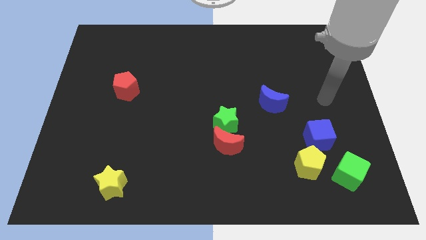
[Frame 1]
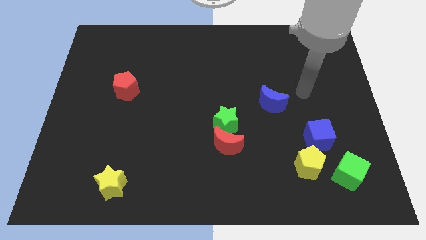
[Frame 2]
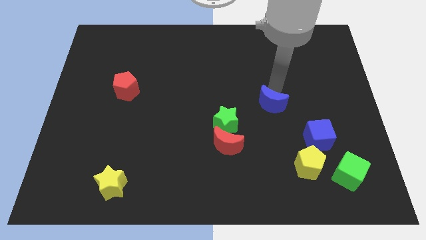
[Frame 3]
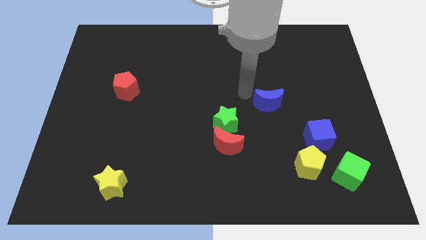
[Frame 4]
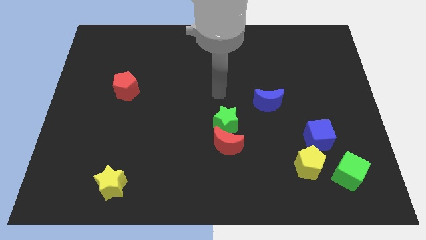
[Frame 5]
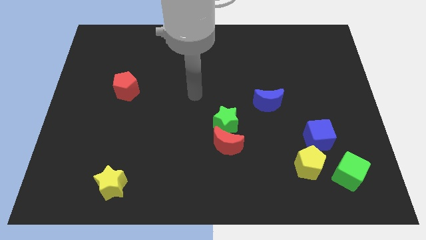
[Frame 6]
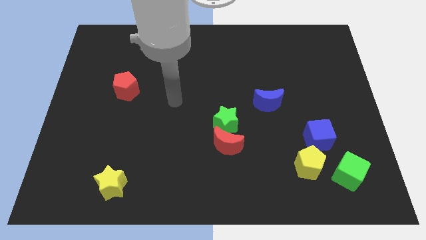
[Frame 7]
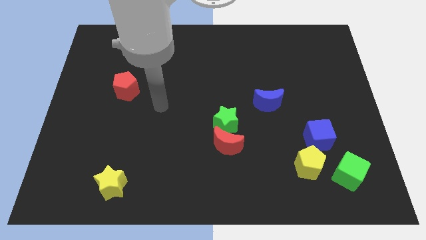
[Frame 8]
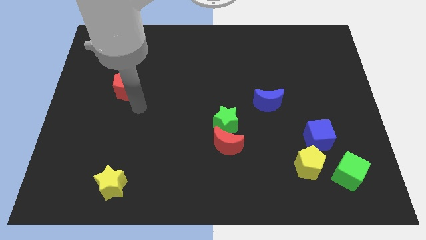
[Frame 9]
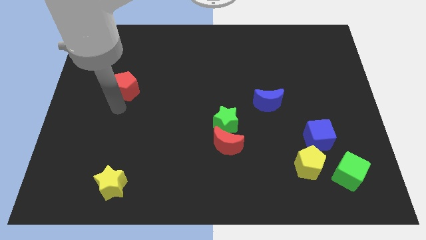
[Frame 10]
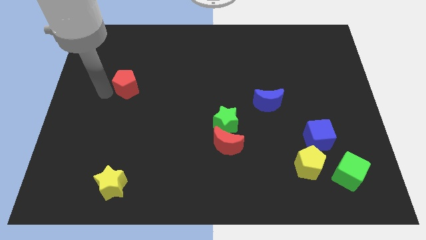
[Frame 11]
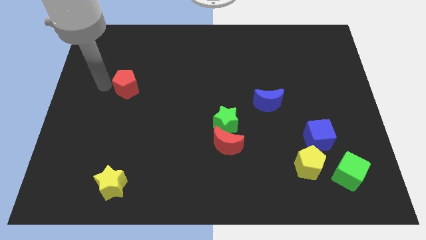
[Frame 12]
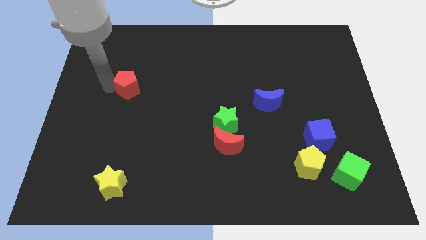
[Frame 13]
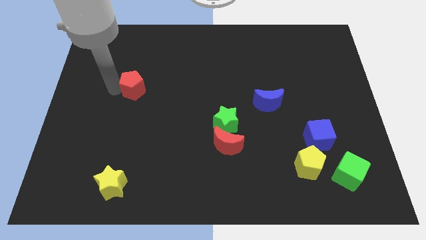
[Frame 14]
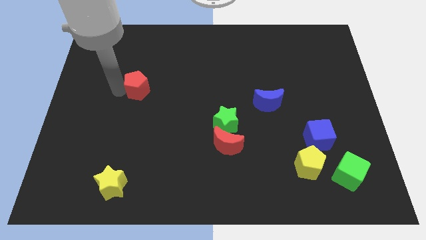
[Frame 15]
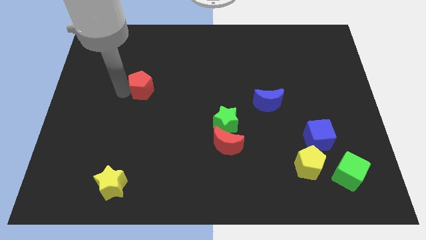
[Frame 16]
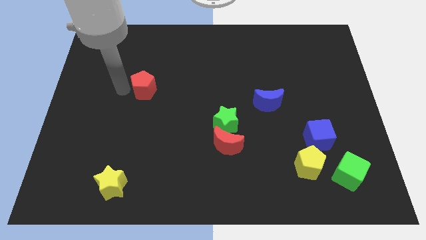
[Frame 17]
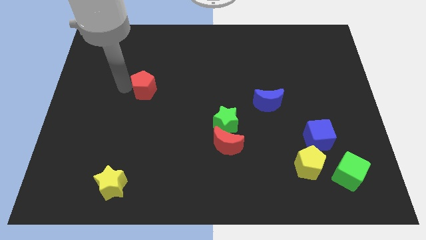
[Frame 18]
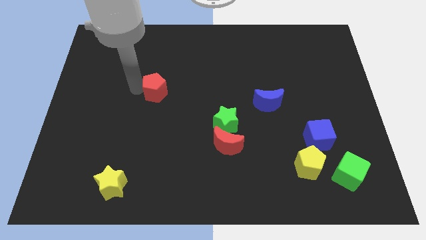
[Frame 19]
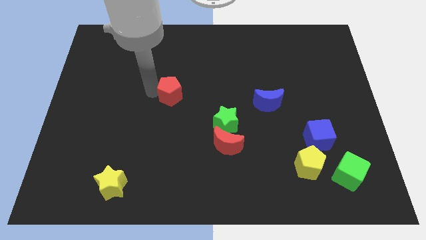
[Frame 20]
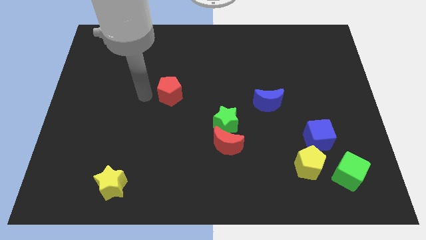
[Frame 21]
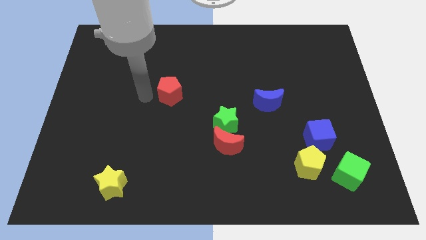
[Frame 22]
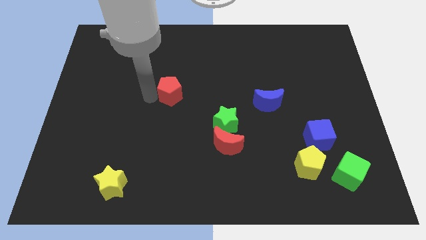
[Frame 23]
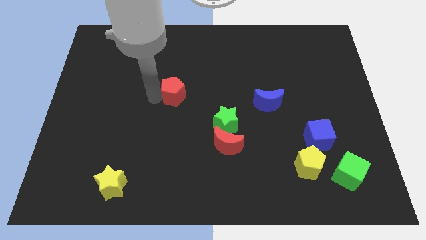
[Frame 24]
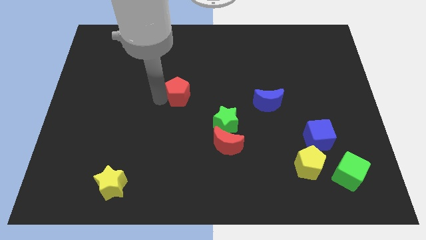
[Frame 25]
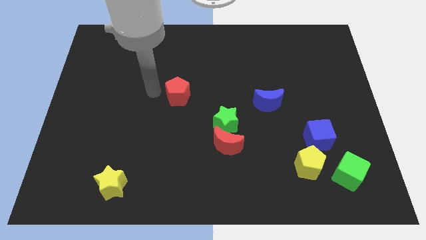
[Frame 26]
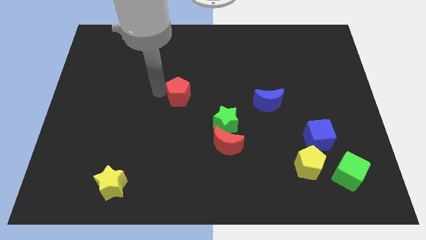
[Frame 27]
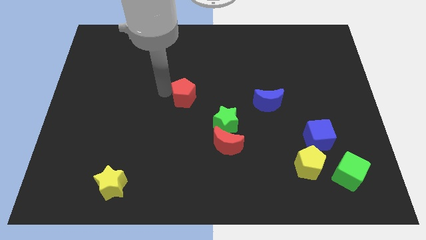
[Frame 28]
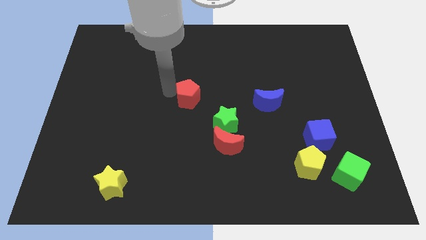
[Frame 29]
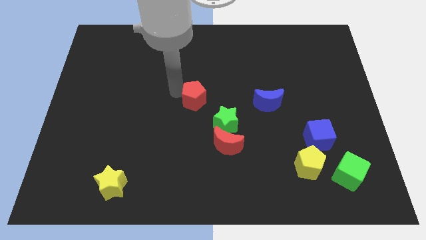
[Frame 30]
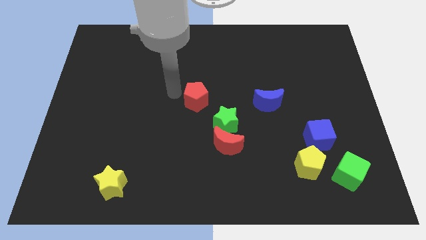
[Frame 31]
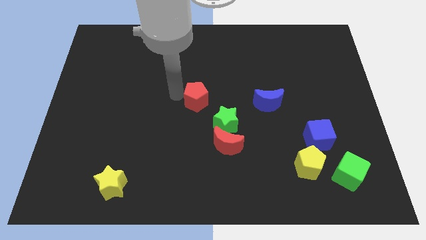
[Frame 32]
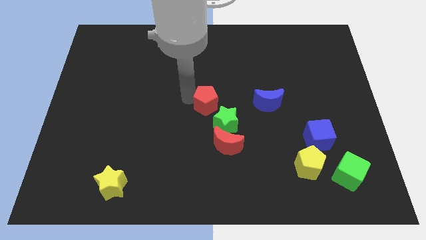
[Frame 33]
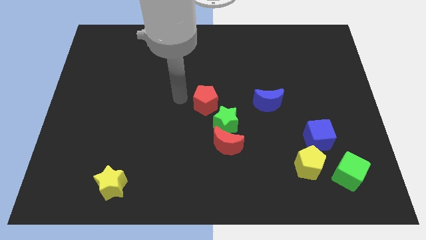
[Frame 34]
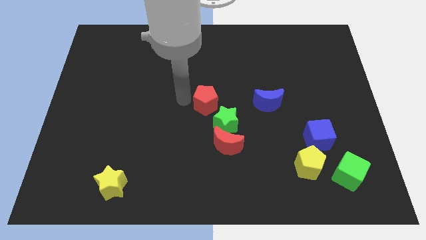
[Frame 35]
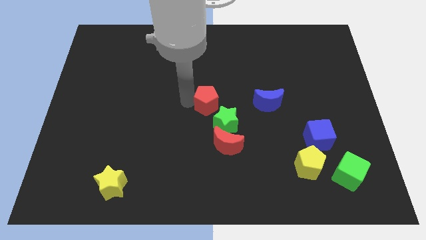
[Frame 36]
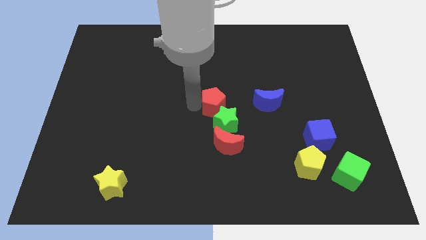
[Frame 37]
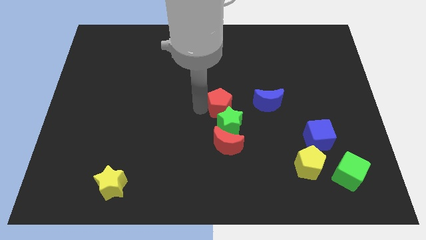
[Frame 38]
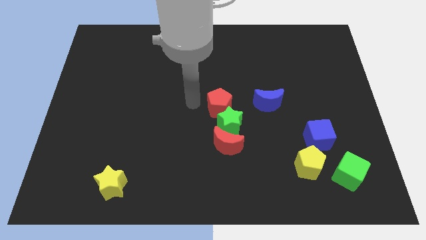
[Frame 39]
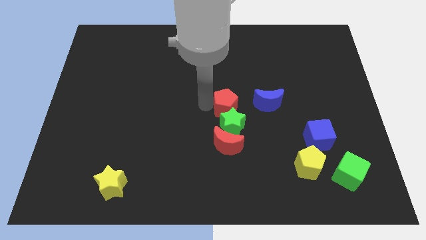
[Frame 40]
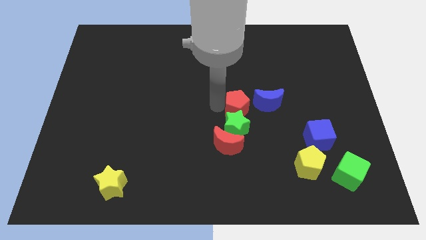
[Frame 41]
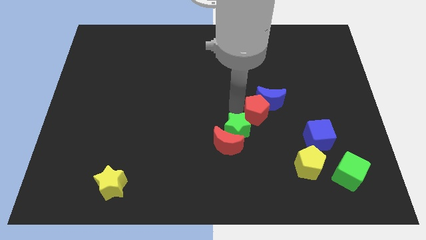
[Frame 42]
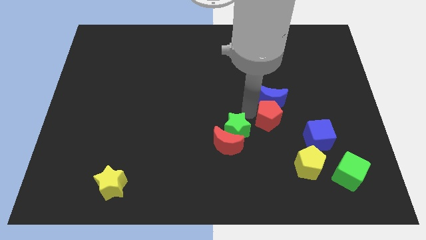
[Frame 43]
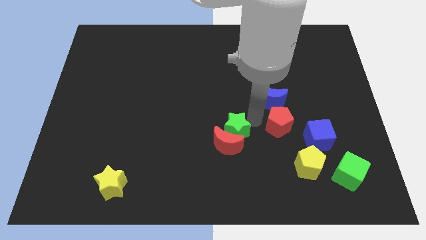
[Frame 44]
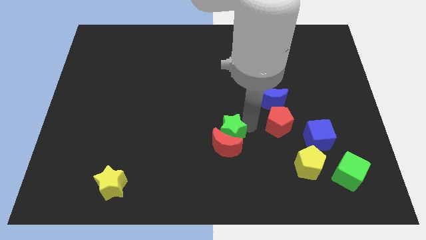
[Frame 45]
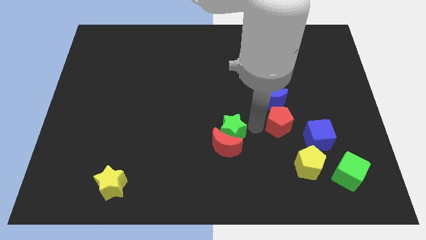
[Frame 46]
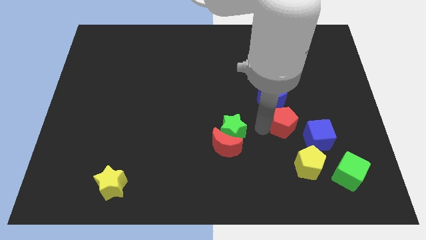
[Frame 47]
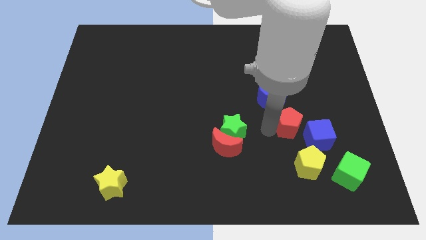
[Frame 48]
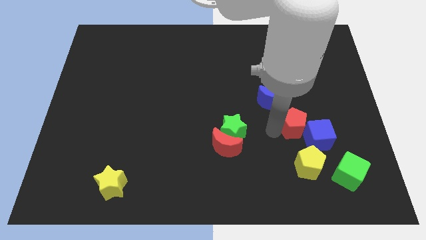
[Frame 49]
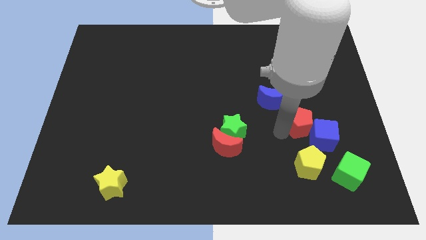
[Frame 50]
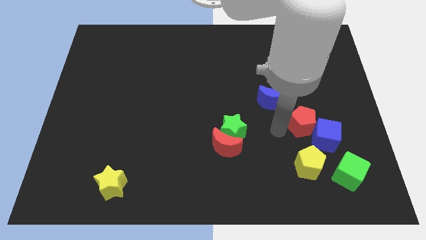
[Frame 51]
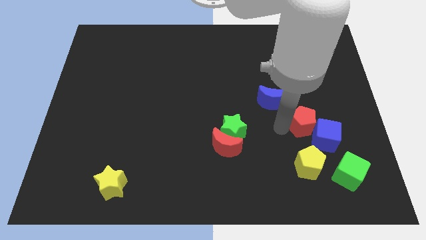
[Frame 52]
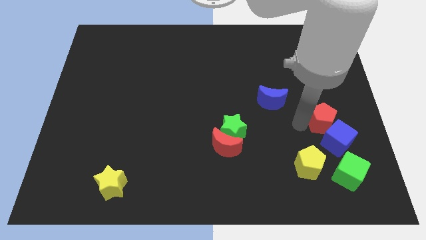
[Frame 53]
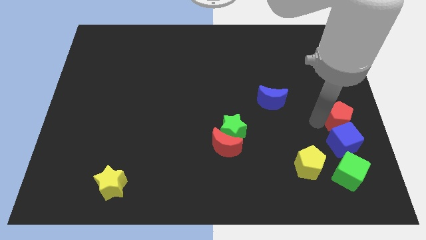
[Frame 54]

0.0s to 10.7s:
slide the red pentagon to the top right side of the blue cube

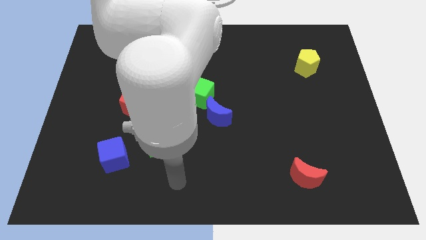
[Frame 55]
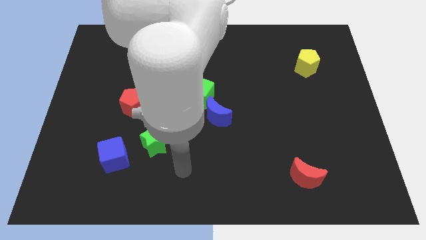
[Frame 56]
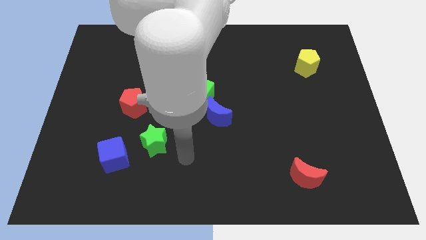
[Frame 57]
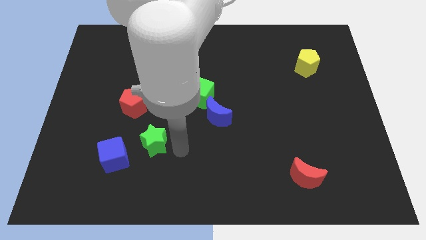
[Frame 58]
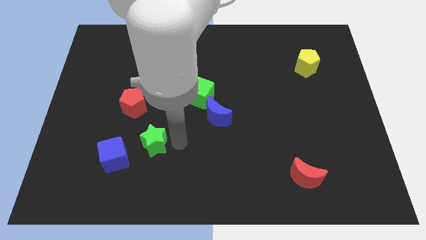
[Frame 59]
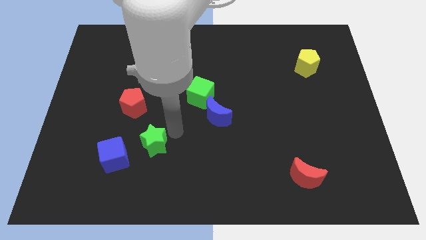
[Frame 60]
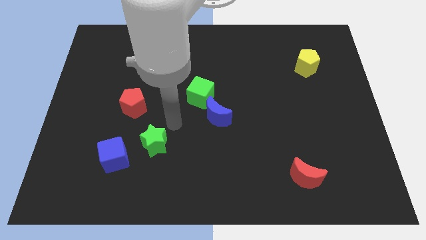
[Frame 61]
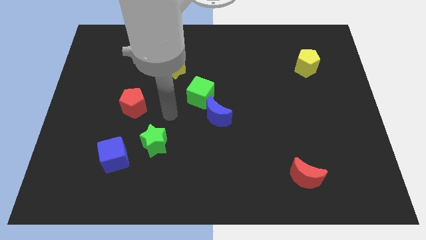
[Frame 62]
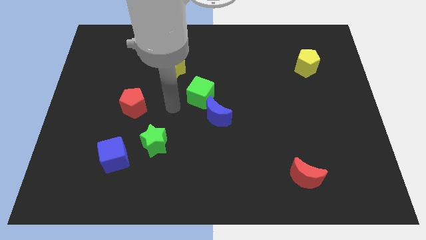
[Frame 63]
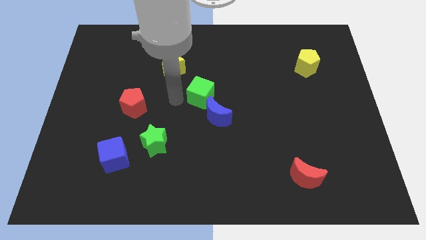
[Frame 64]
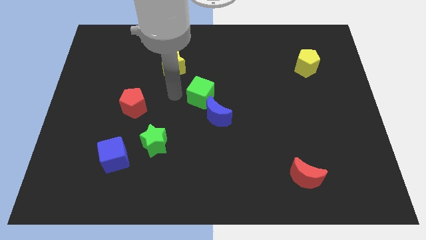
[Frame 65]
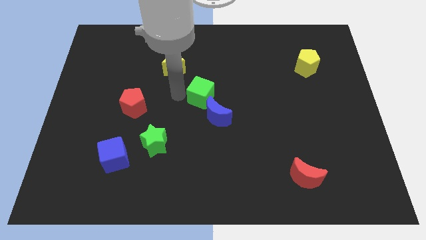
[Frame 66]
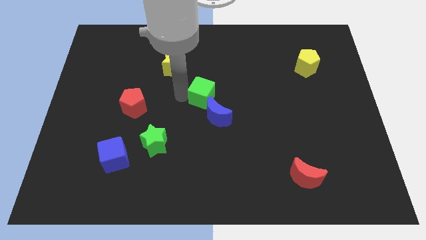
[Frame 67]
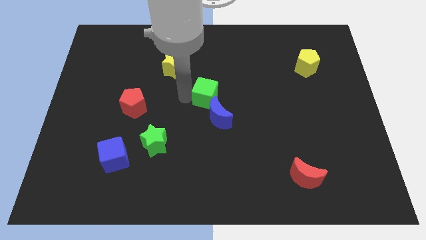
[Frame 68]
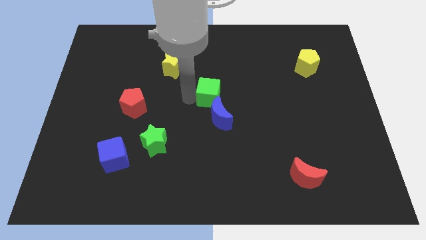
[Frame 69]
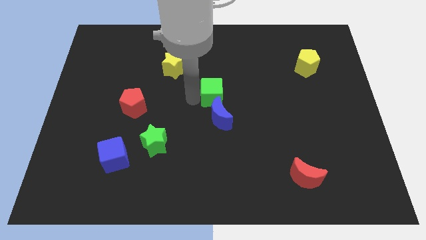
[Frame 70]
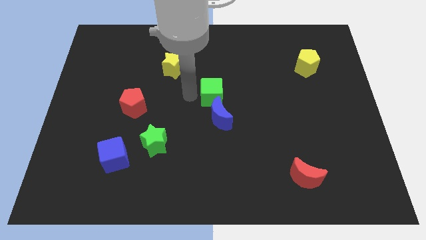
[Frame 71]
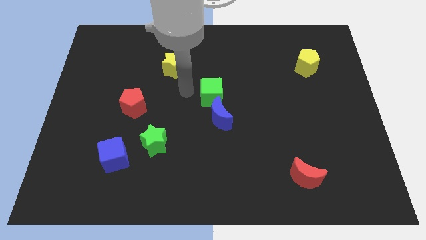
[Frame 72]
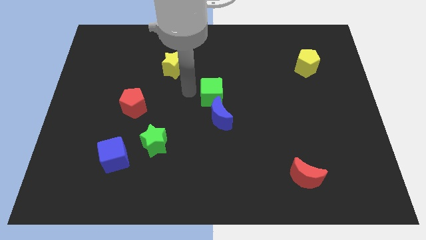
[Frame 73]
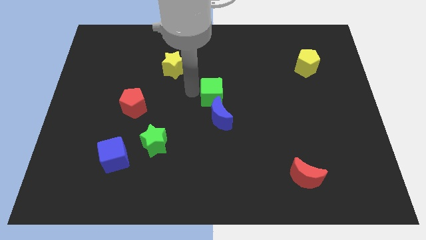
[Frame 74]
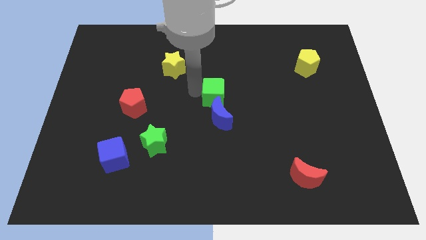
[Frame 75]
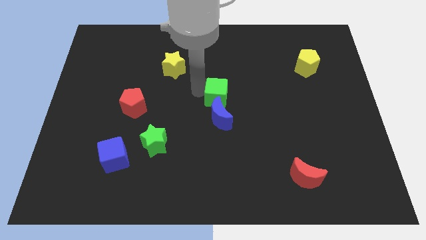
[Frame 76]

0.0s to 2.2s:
move the green cube to the top right of the blue moon
